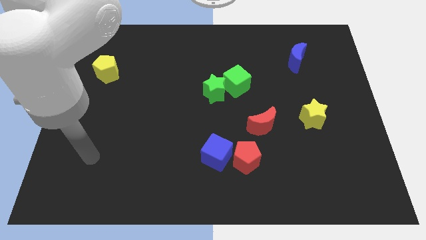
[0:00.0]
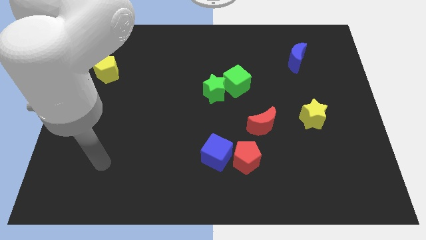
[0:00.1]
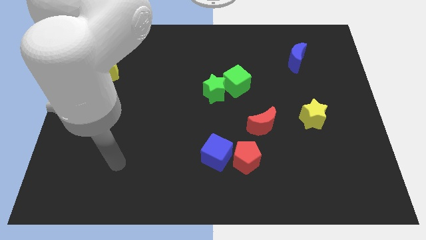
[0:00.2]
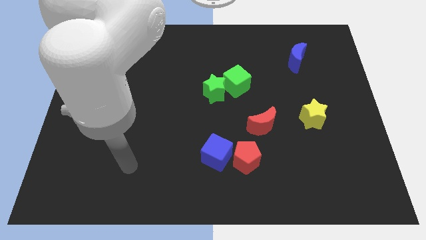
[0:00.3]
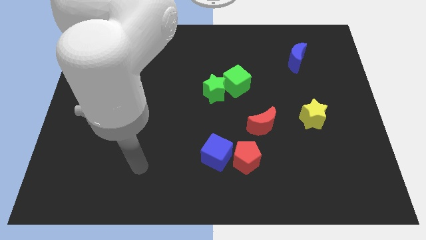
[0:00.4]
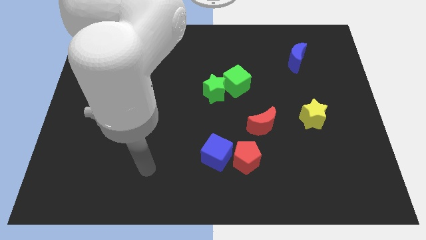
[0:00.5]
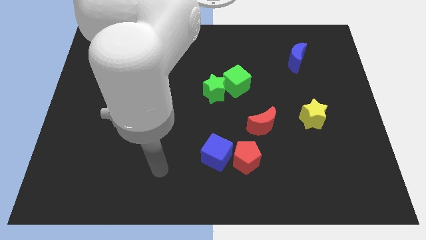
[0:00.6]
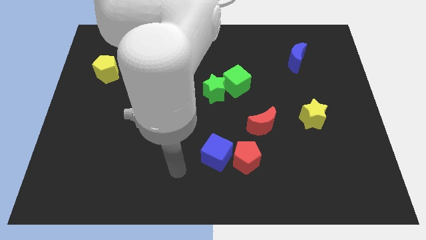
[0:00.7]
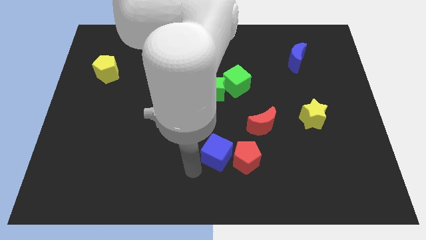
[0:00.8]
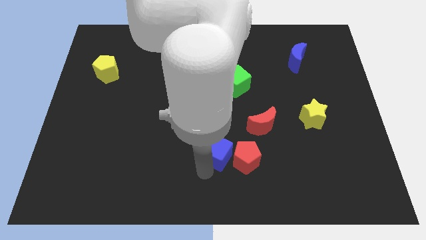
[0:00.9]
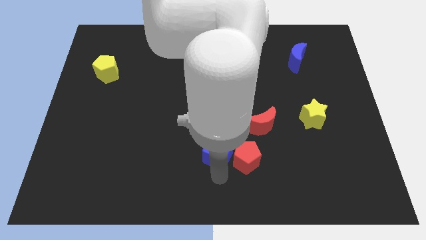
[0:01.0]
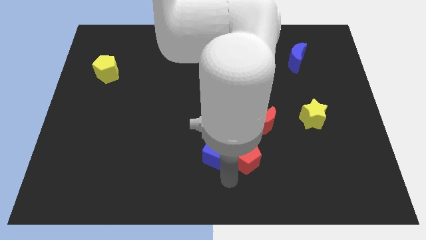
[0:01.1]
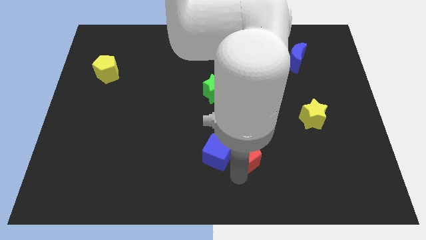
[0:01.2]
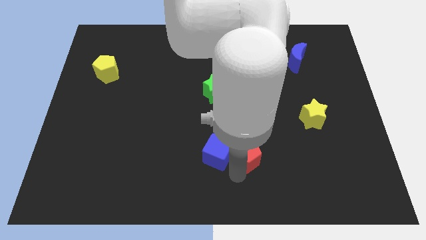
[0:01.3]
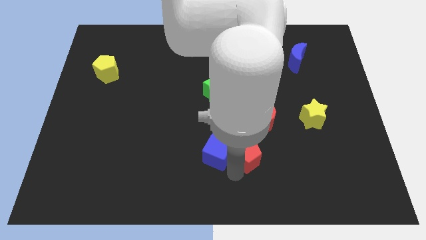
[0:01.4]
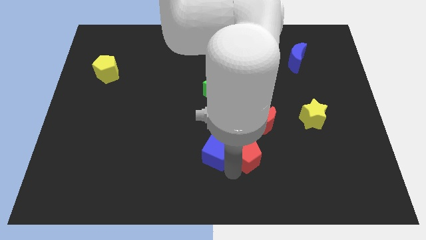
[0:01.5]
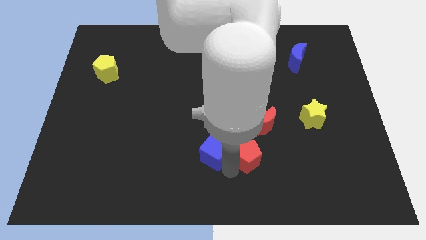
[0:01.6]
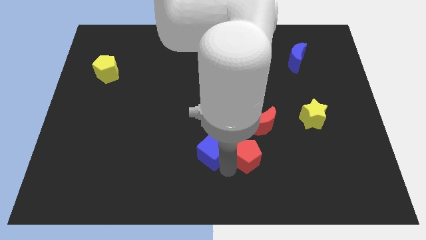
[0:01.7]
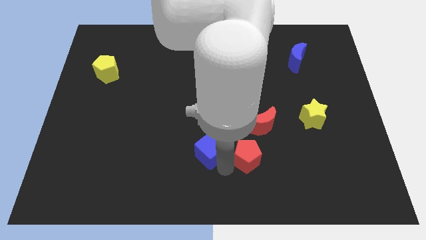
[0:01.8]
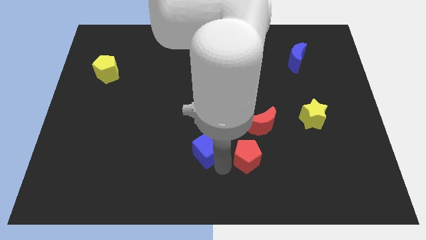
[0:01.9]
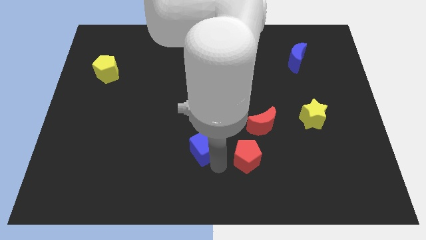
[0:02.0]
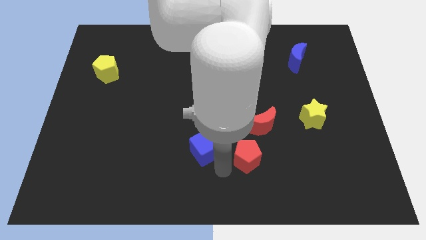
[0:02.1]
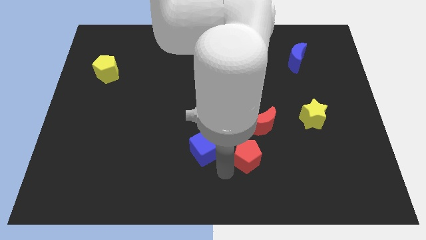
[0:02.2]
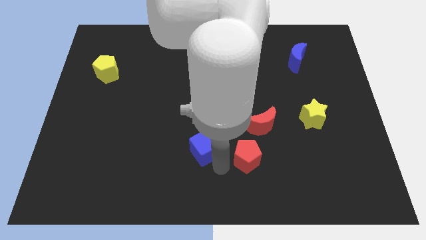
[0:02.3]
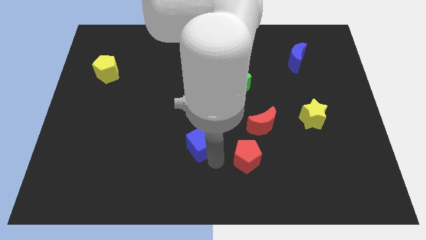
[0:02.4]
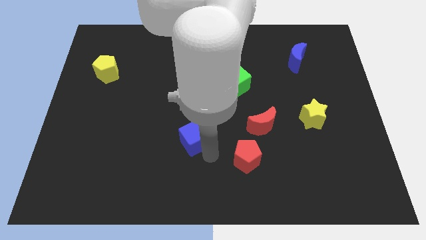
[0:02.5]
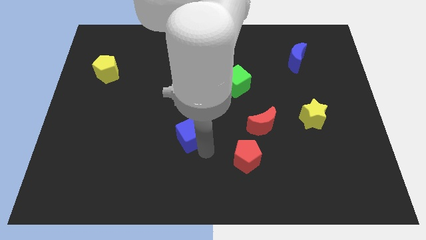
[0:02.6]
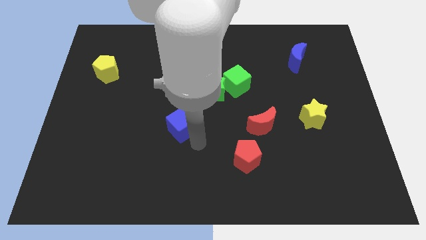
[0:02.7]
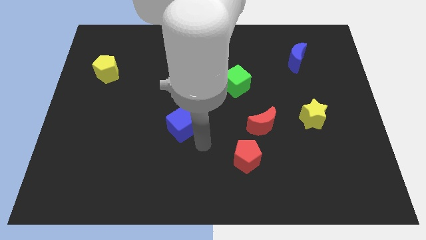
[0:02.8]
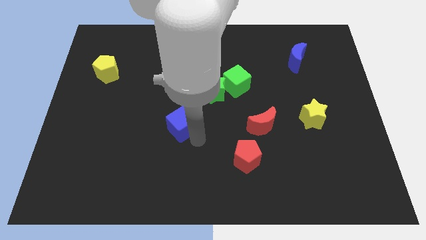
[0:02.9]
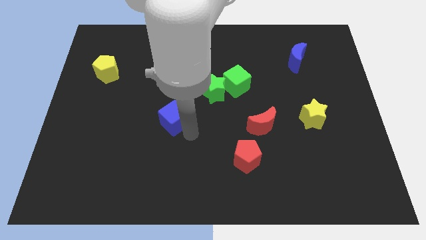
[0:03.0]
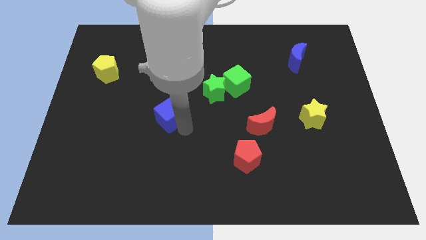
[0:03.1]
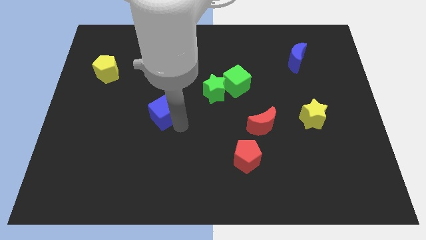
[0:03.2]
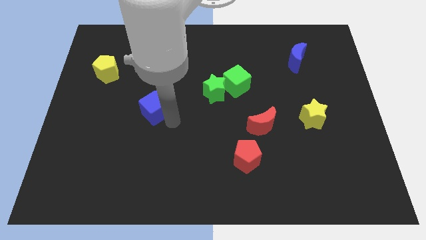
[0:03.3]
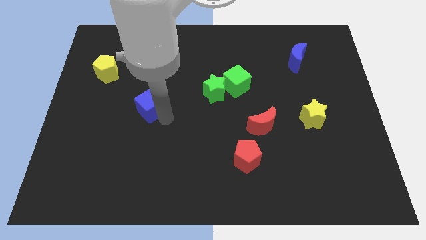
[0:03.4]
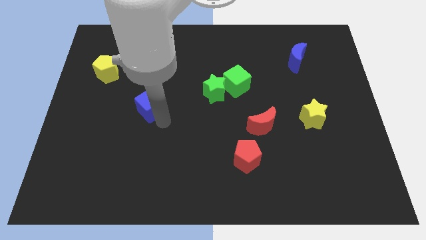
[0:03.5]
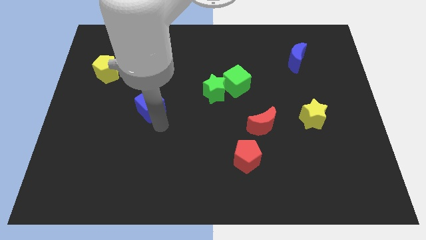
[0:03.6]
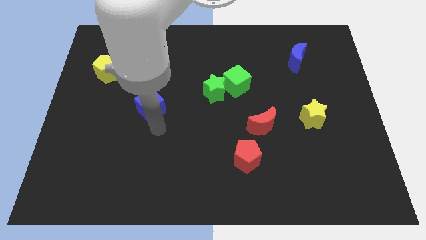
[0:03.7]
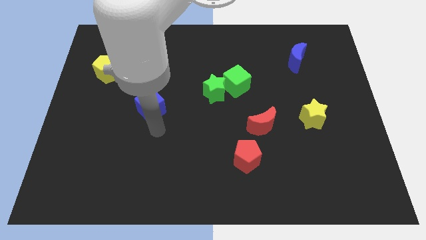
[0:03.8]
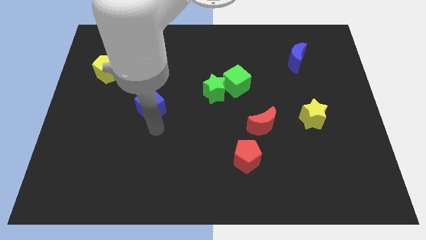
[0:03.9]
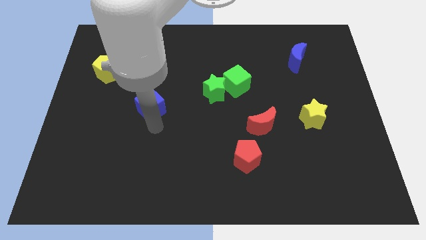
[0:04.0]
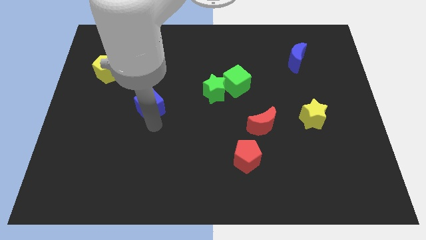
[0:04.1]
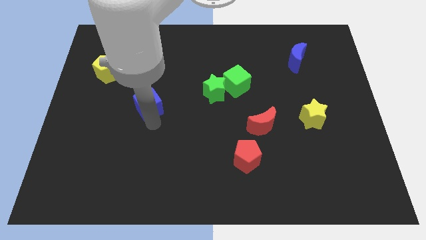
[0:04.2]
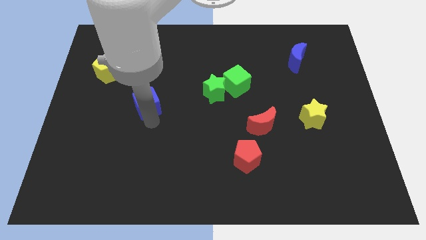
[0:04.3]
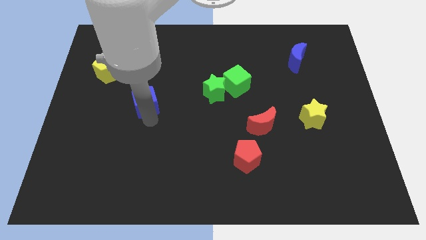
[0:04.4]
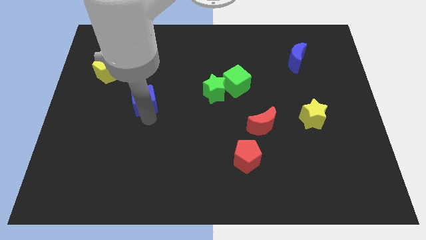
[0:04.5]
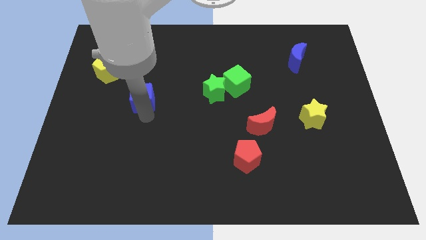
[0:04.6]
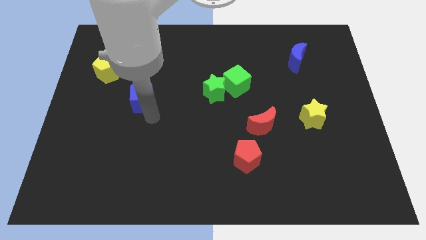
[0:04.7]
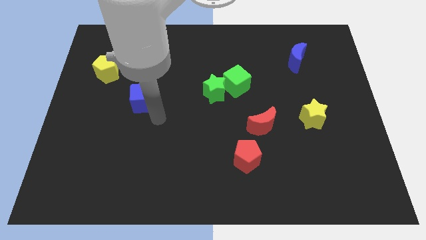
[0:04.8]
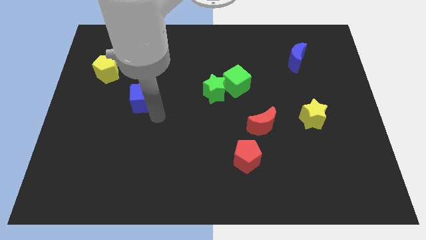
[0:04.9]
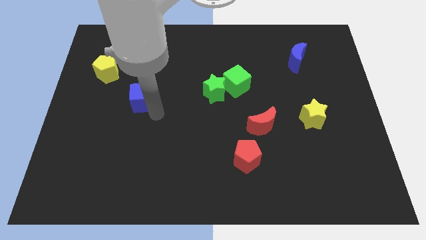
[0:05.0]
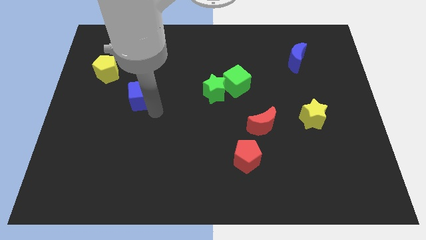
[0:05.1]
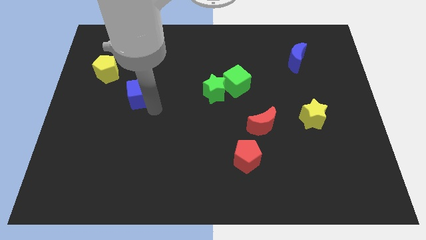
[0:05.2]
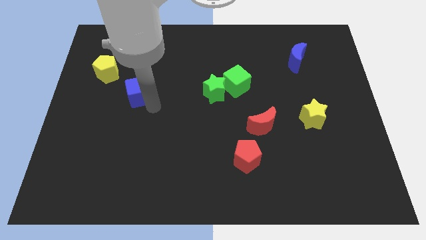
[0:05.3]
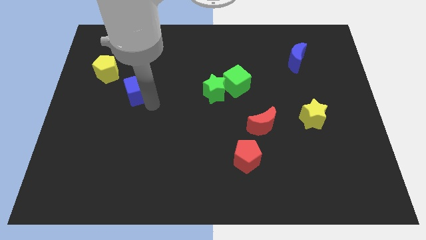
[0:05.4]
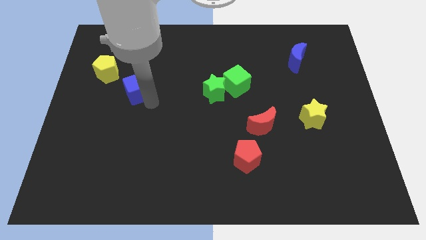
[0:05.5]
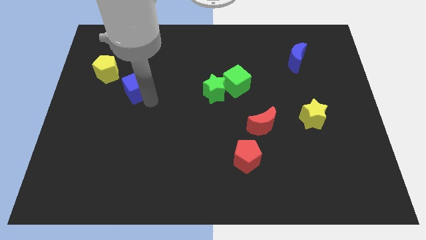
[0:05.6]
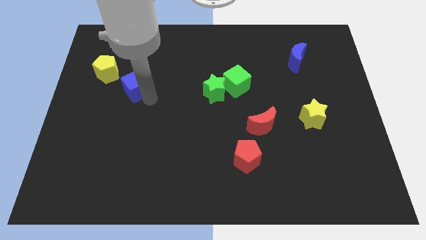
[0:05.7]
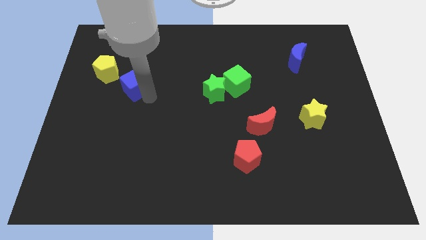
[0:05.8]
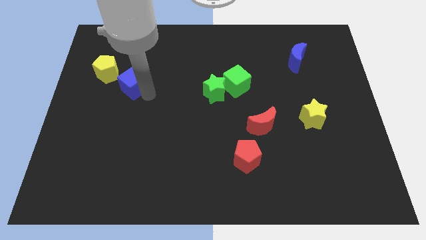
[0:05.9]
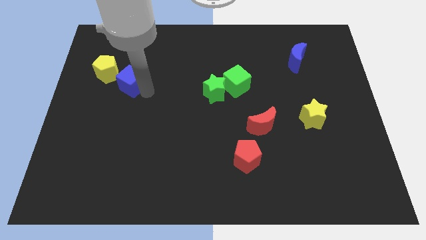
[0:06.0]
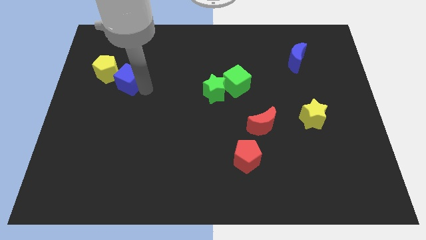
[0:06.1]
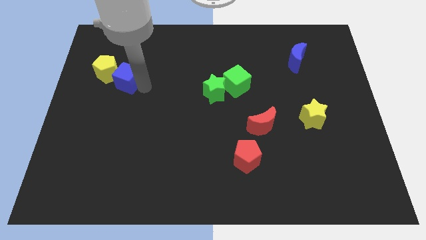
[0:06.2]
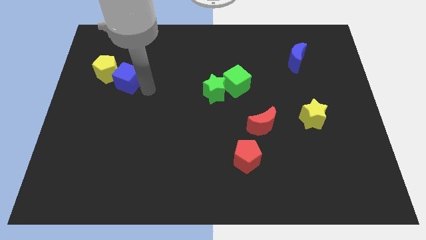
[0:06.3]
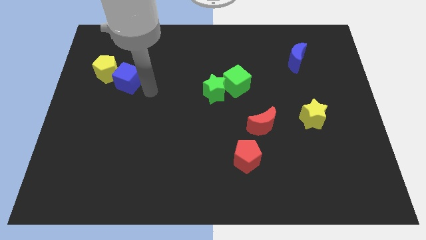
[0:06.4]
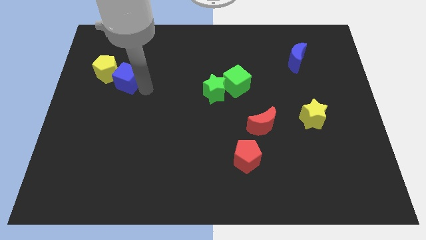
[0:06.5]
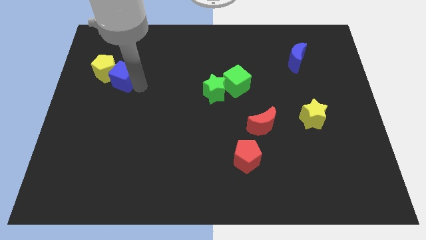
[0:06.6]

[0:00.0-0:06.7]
push the blue cube close to the yellow pentagon
